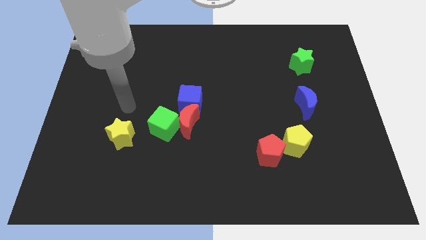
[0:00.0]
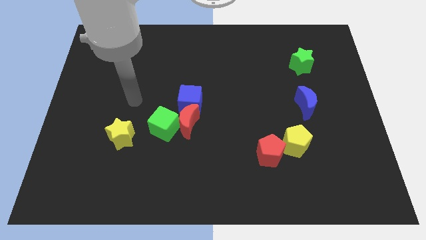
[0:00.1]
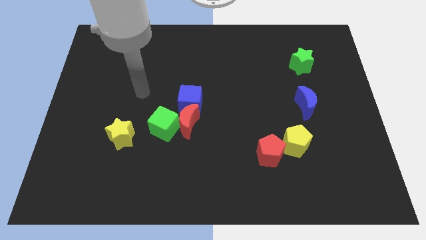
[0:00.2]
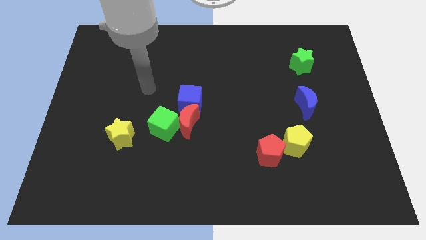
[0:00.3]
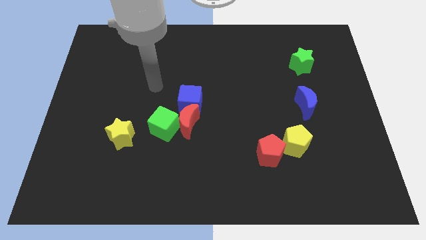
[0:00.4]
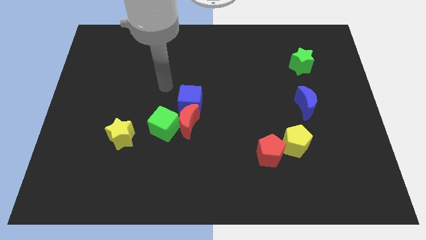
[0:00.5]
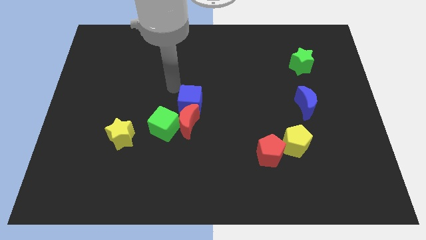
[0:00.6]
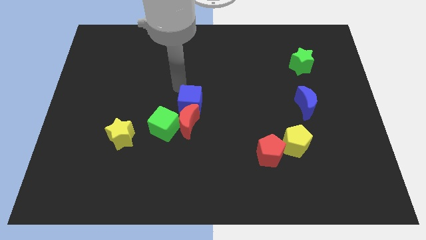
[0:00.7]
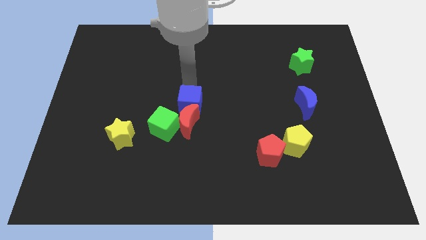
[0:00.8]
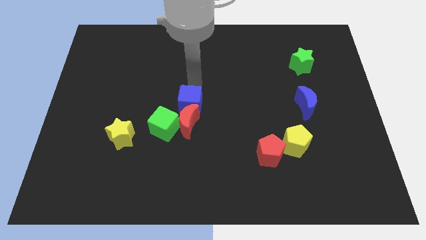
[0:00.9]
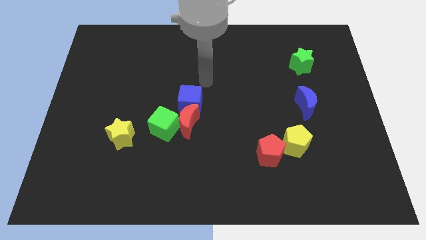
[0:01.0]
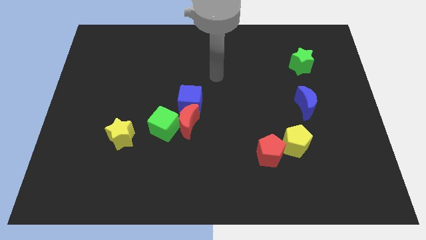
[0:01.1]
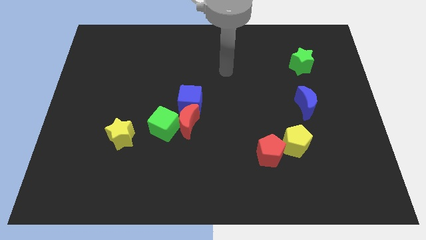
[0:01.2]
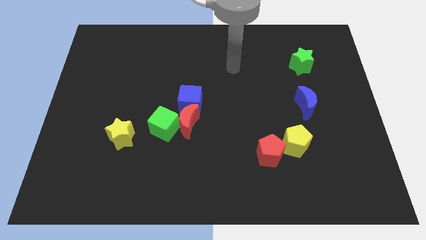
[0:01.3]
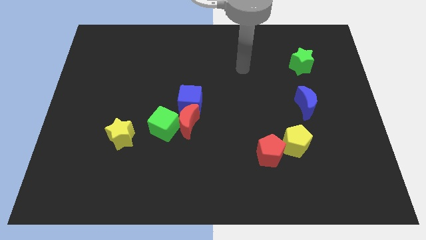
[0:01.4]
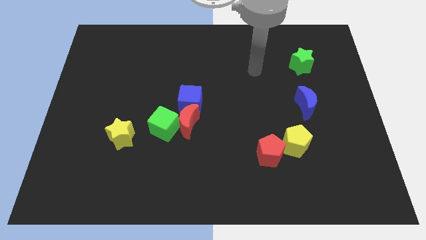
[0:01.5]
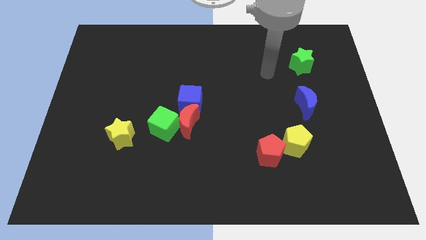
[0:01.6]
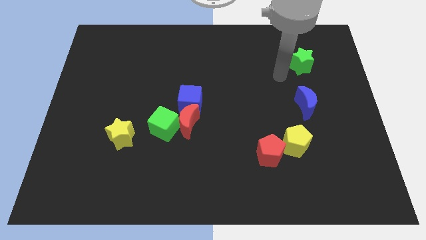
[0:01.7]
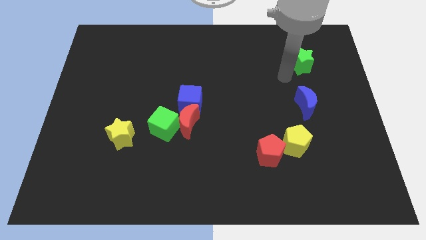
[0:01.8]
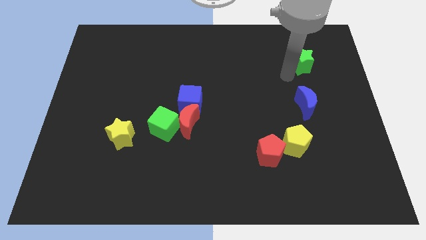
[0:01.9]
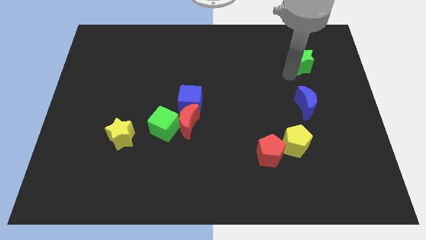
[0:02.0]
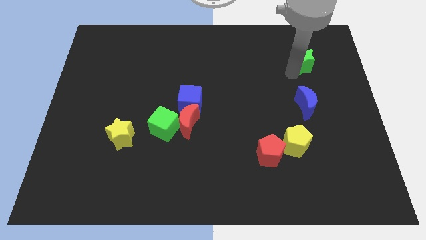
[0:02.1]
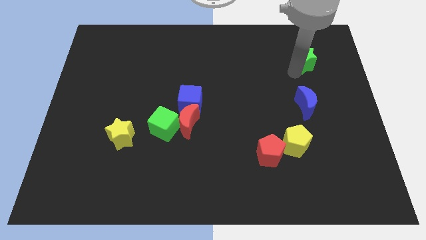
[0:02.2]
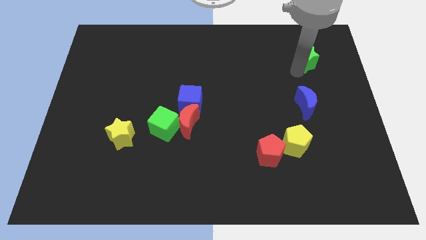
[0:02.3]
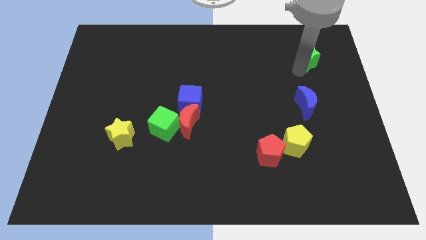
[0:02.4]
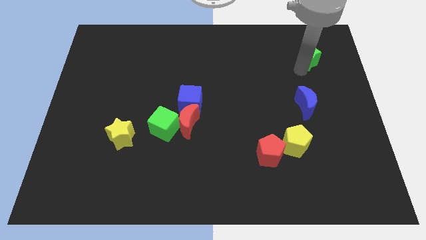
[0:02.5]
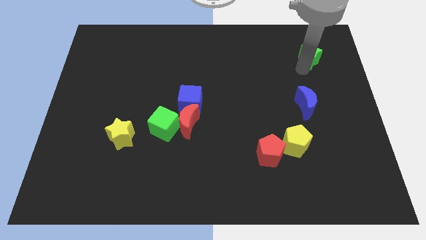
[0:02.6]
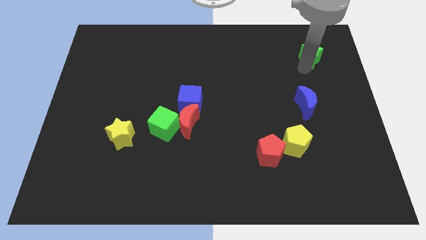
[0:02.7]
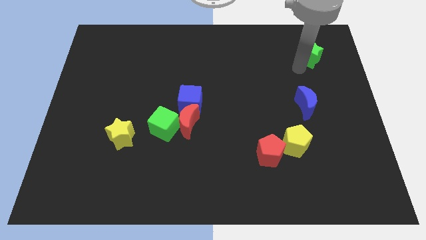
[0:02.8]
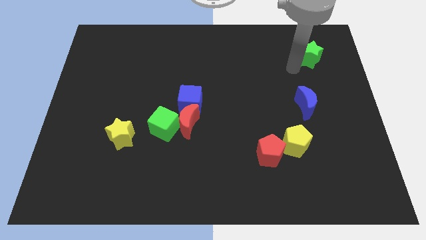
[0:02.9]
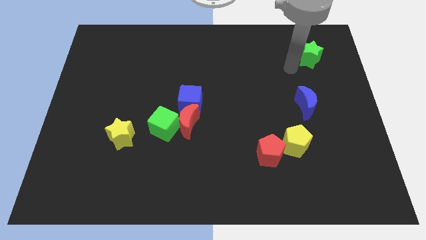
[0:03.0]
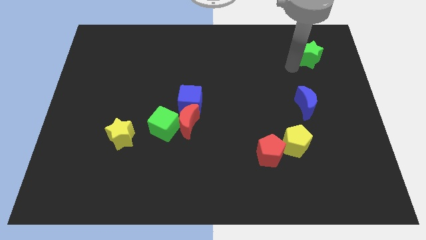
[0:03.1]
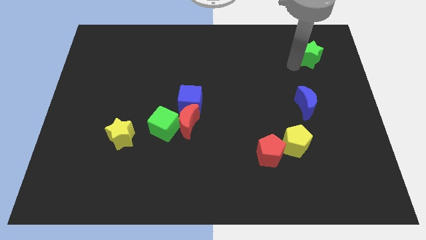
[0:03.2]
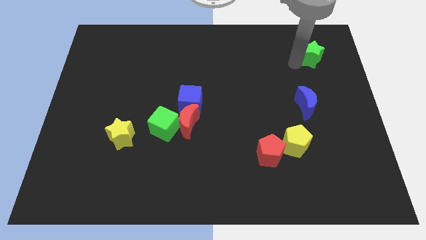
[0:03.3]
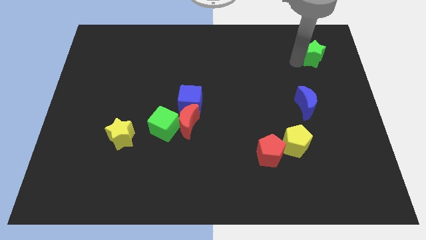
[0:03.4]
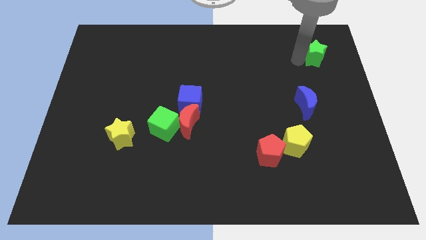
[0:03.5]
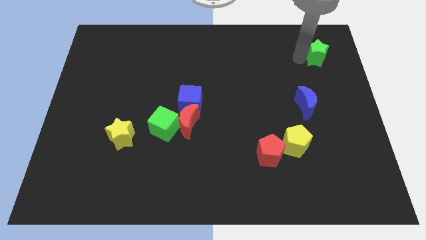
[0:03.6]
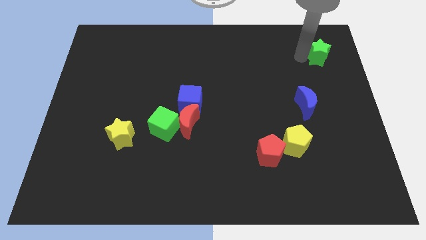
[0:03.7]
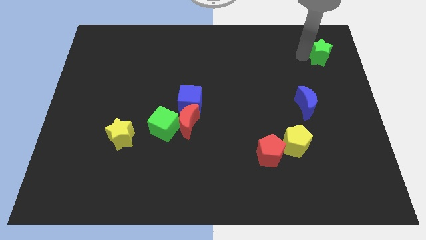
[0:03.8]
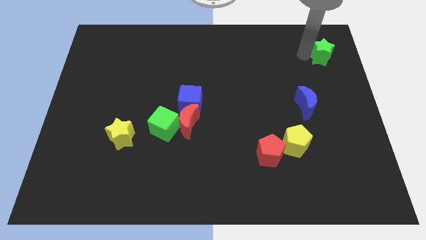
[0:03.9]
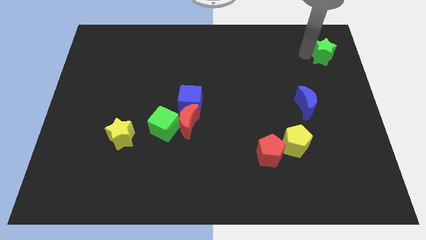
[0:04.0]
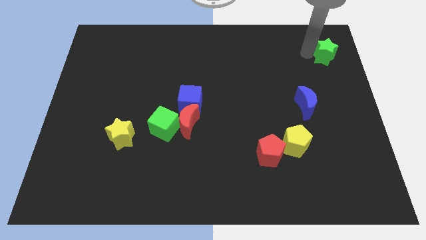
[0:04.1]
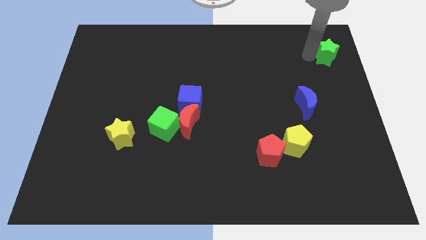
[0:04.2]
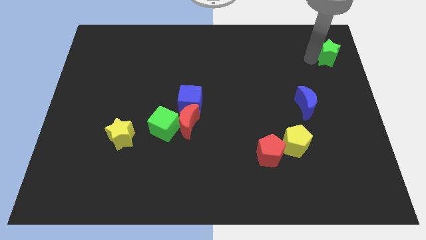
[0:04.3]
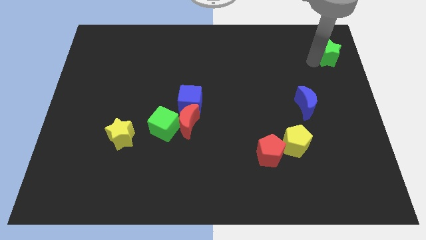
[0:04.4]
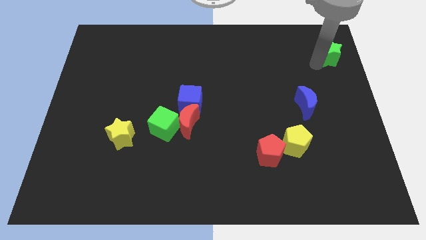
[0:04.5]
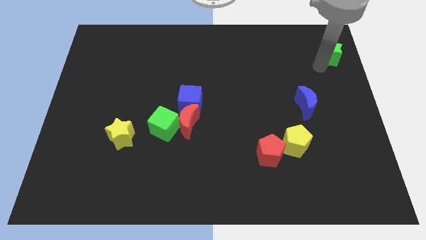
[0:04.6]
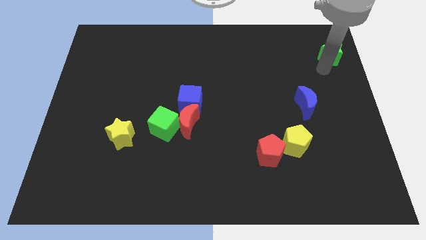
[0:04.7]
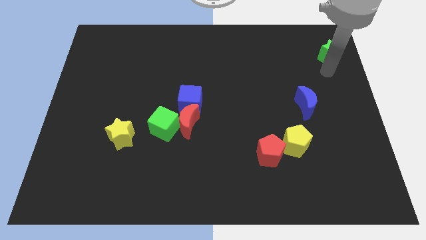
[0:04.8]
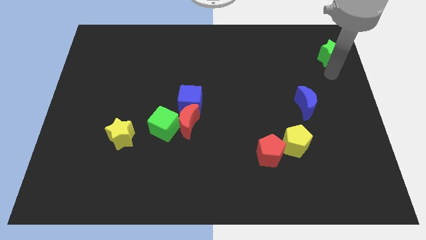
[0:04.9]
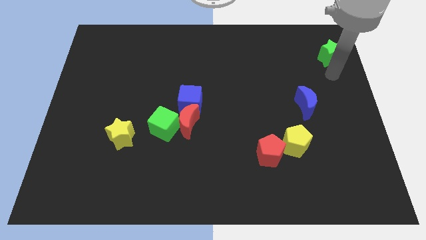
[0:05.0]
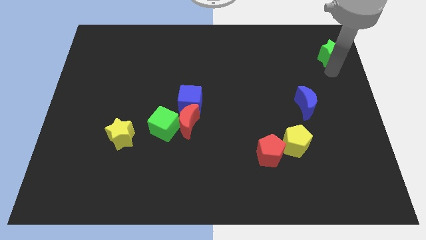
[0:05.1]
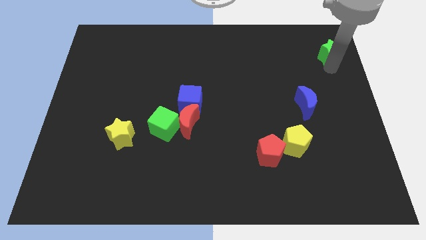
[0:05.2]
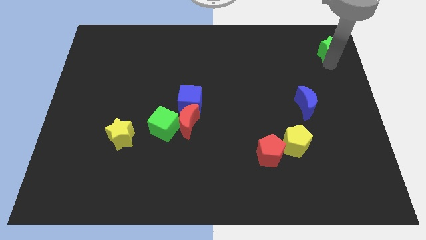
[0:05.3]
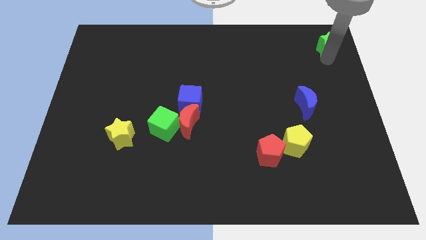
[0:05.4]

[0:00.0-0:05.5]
put the green star to the top right of the board

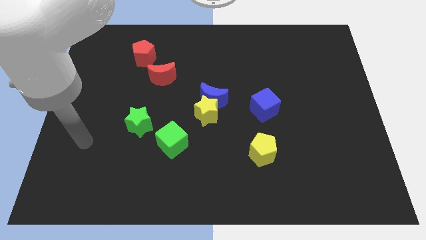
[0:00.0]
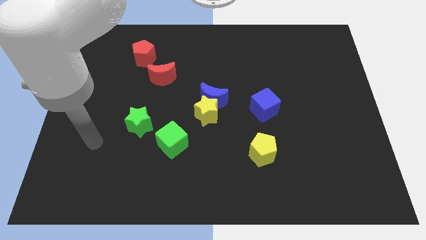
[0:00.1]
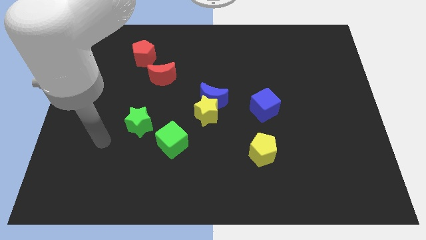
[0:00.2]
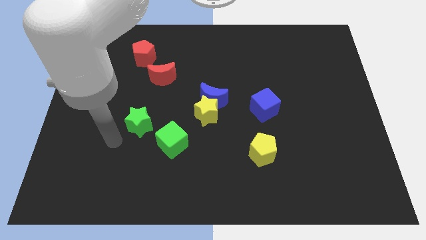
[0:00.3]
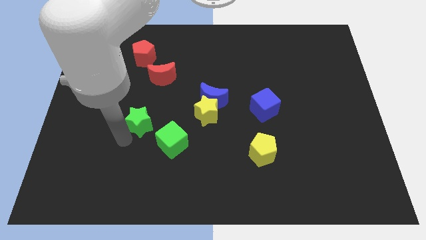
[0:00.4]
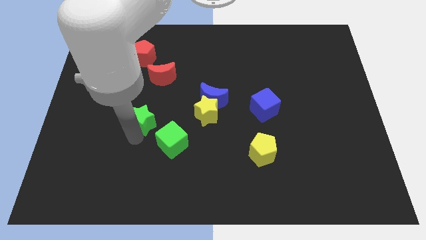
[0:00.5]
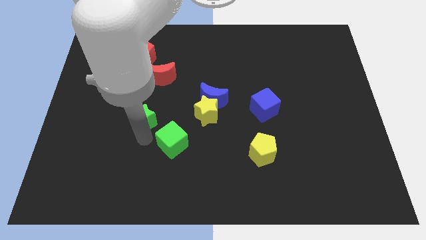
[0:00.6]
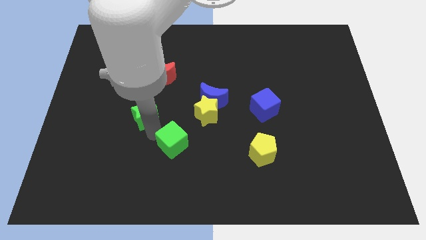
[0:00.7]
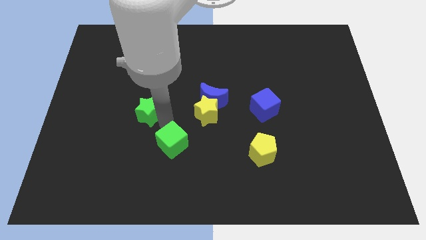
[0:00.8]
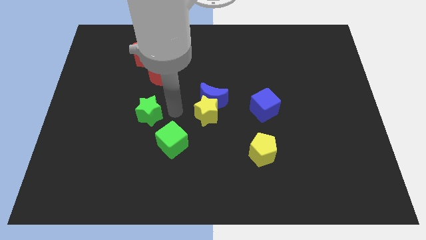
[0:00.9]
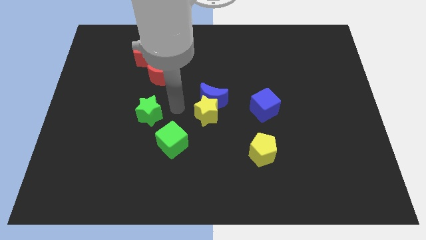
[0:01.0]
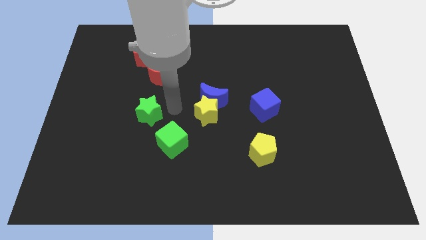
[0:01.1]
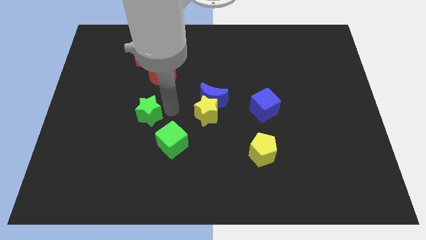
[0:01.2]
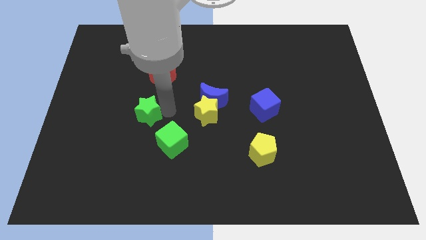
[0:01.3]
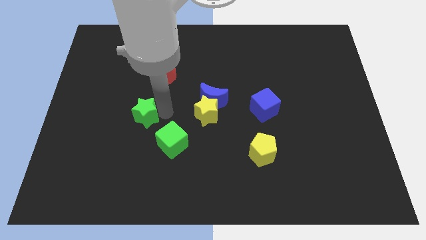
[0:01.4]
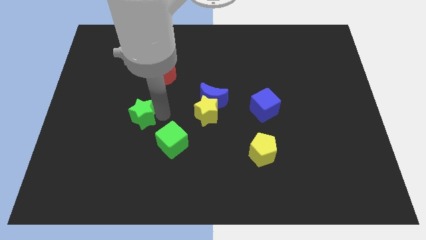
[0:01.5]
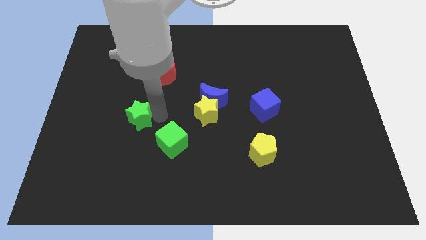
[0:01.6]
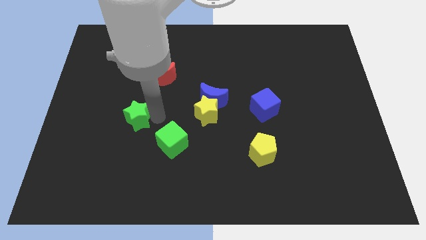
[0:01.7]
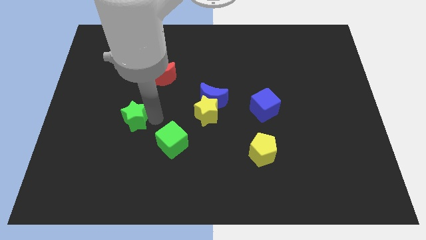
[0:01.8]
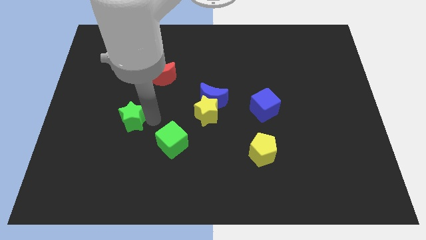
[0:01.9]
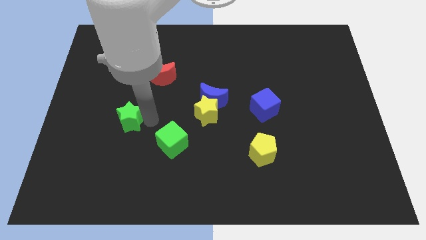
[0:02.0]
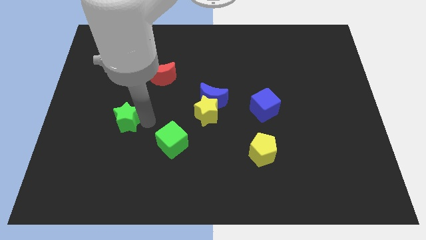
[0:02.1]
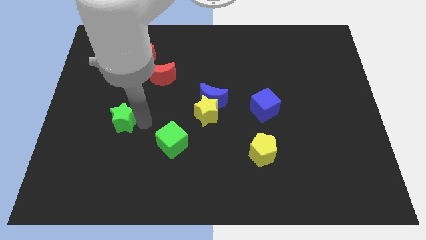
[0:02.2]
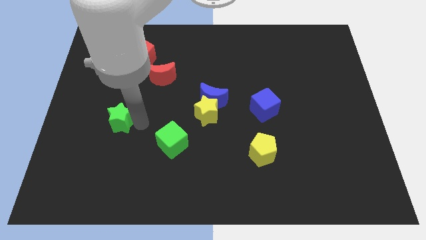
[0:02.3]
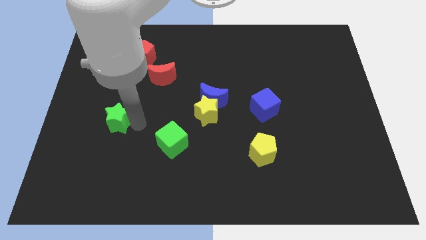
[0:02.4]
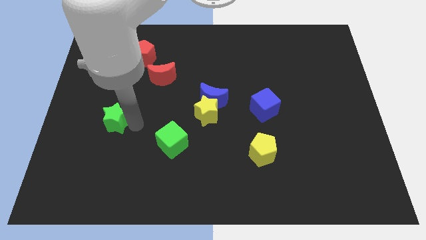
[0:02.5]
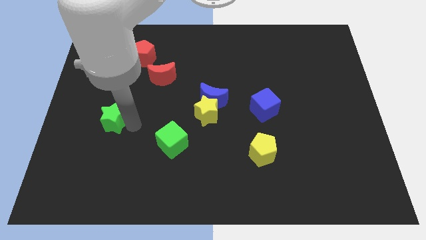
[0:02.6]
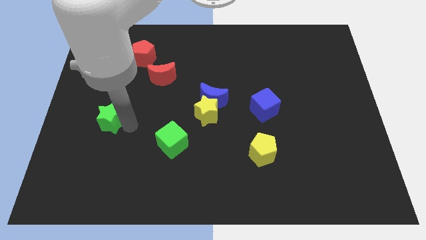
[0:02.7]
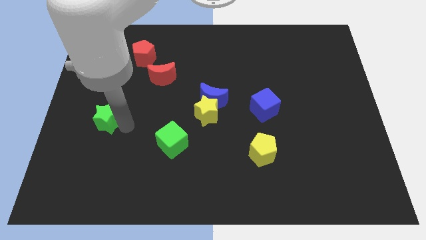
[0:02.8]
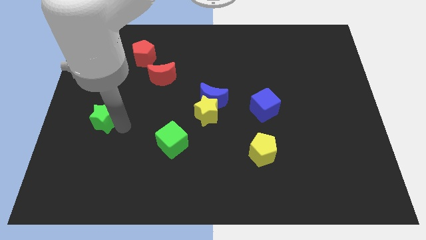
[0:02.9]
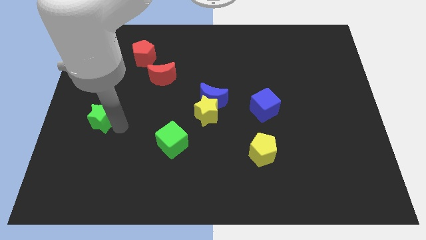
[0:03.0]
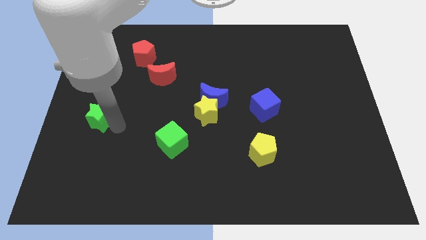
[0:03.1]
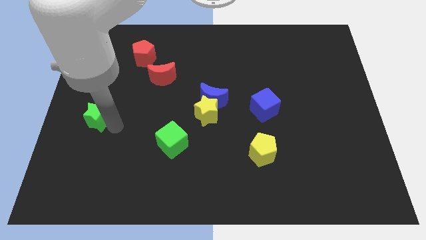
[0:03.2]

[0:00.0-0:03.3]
move the green star to the left side of the board
